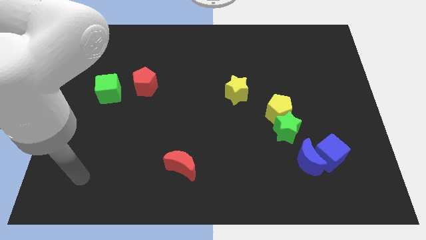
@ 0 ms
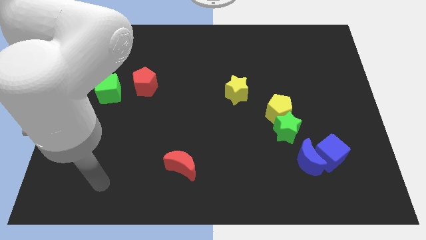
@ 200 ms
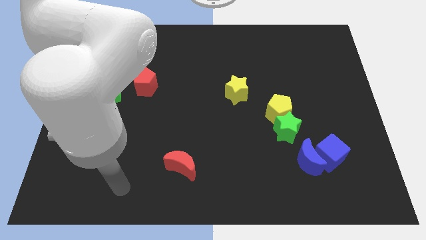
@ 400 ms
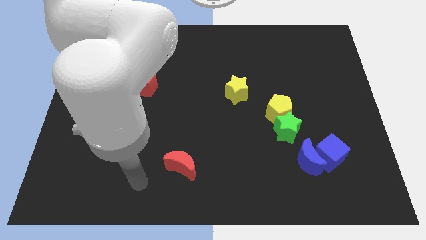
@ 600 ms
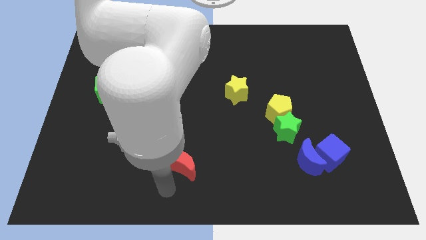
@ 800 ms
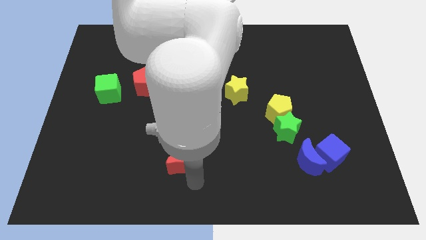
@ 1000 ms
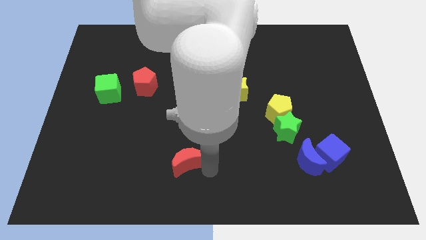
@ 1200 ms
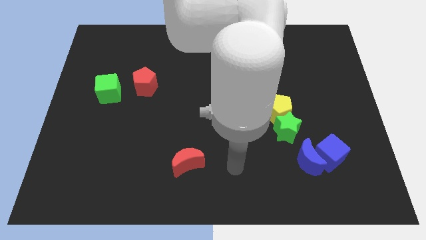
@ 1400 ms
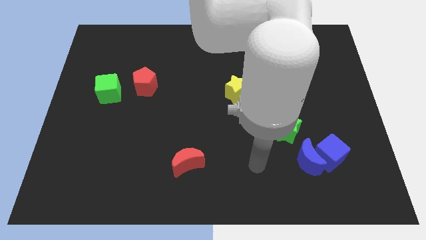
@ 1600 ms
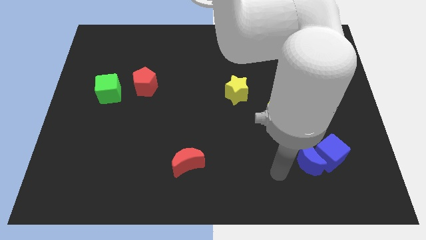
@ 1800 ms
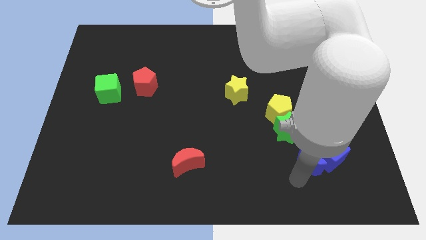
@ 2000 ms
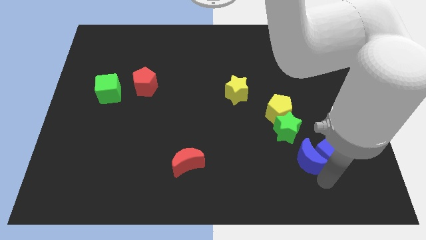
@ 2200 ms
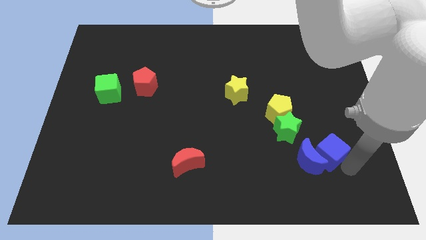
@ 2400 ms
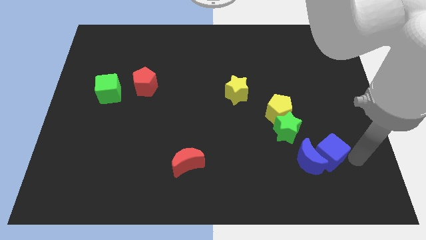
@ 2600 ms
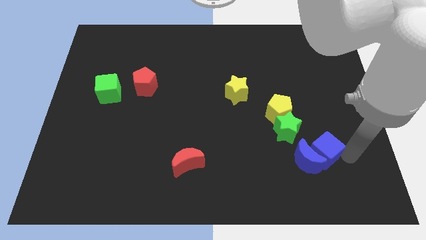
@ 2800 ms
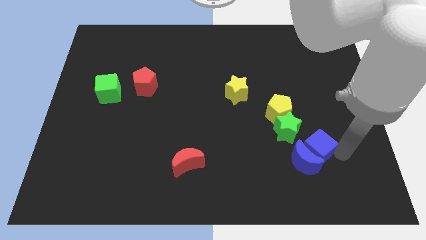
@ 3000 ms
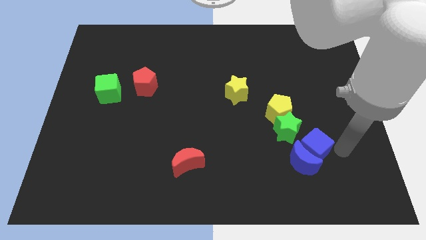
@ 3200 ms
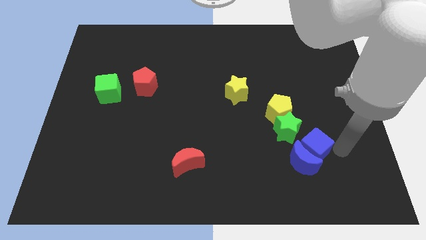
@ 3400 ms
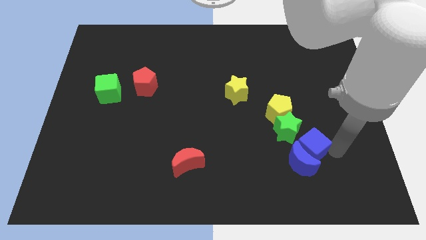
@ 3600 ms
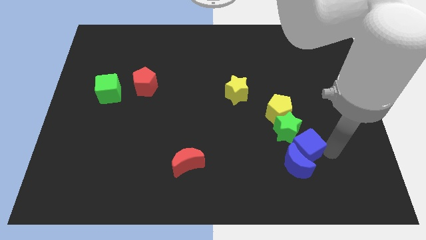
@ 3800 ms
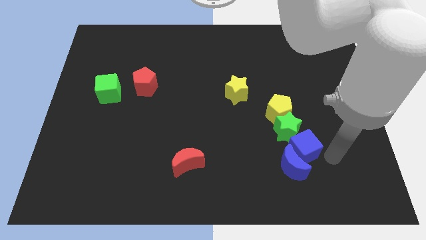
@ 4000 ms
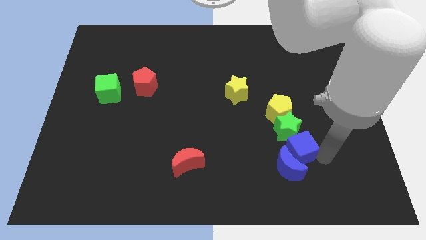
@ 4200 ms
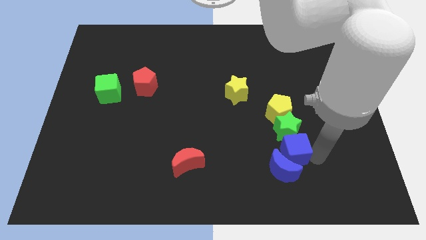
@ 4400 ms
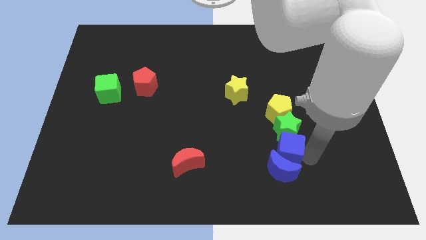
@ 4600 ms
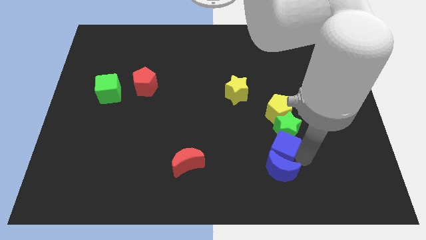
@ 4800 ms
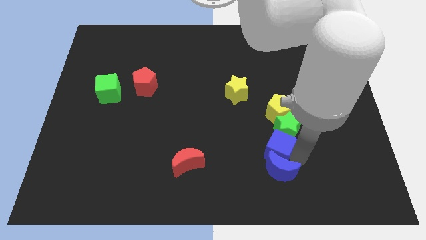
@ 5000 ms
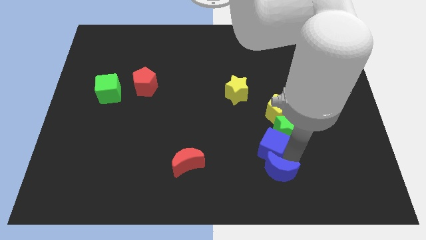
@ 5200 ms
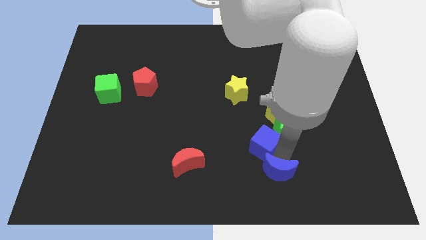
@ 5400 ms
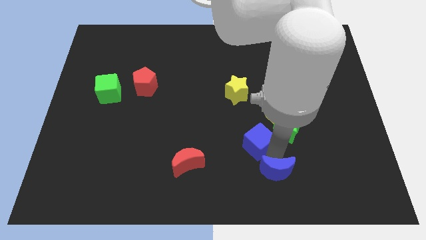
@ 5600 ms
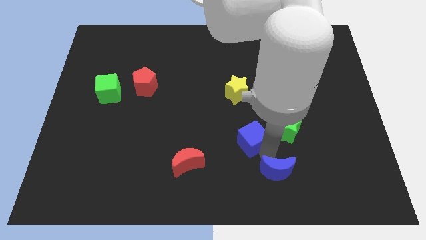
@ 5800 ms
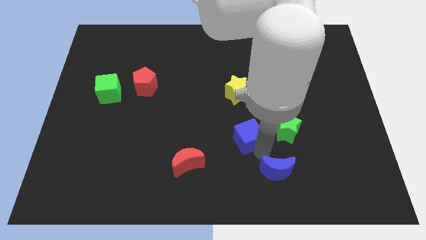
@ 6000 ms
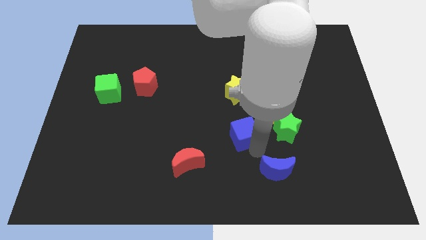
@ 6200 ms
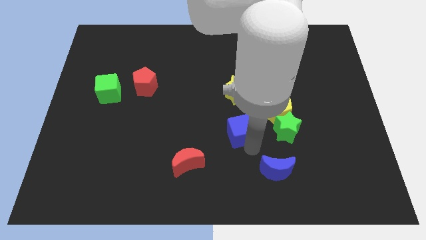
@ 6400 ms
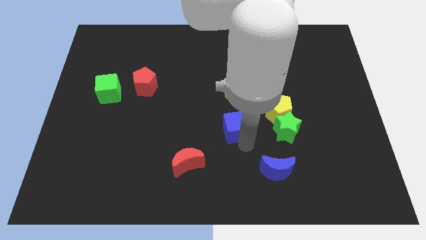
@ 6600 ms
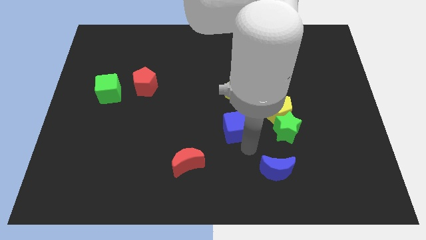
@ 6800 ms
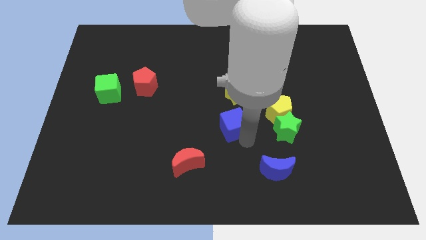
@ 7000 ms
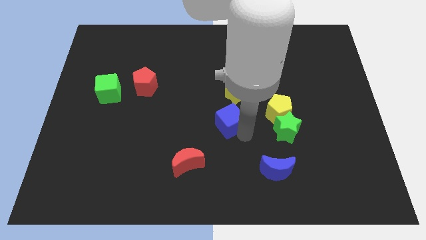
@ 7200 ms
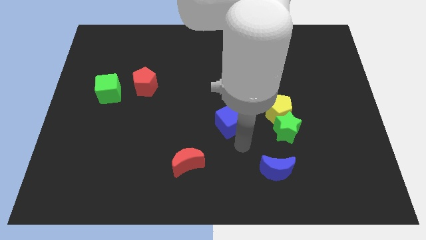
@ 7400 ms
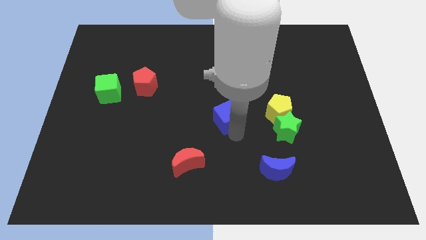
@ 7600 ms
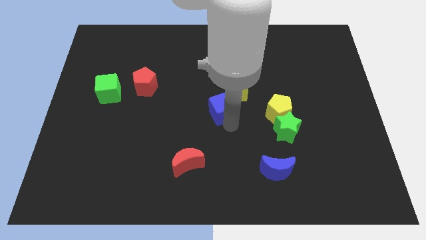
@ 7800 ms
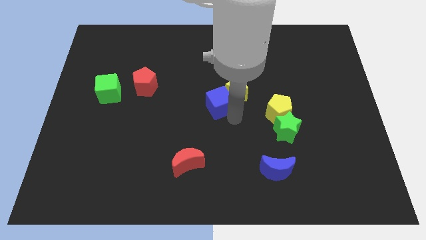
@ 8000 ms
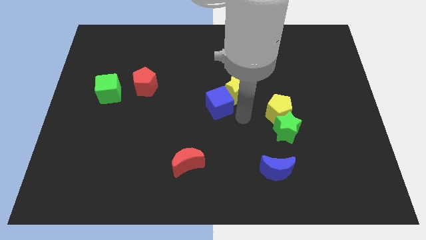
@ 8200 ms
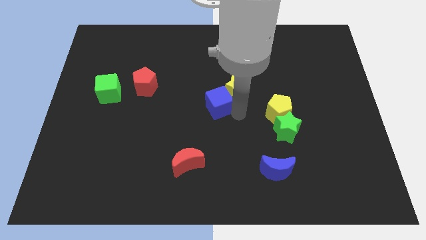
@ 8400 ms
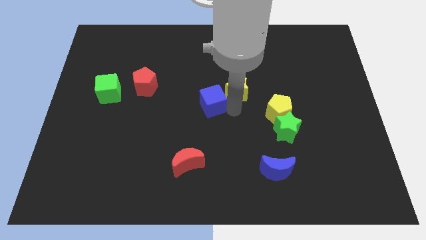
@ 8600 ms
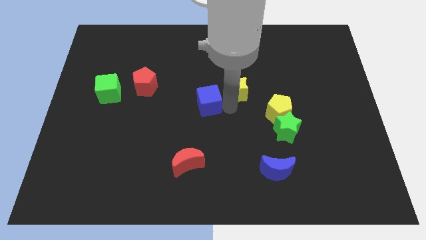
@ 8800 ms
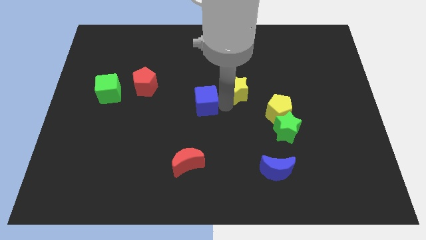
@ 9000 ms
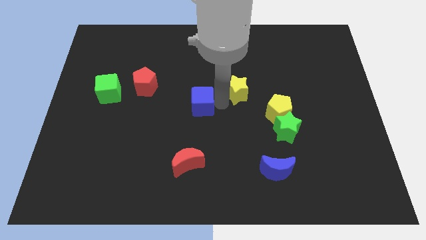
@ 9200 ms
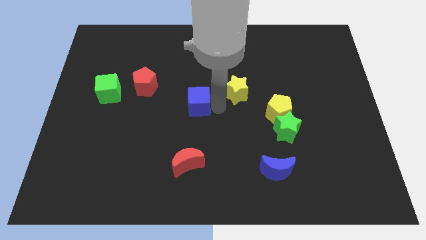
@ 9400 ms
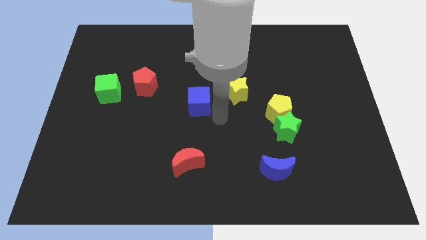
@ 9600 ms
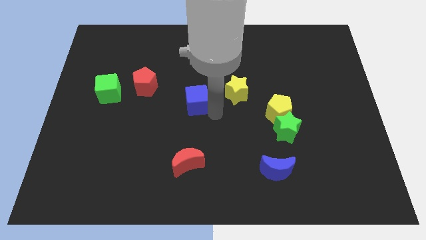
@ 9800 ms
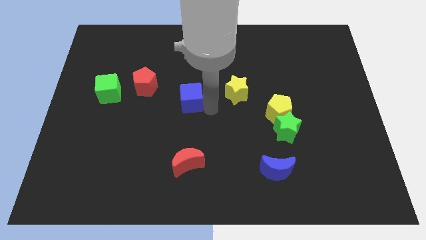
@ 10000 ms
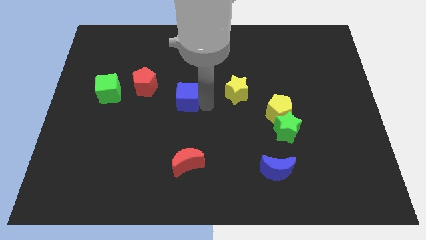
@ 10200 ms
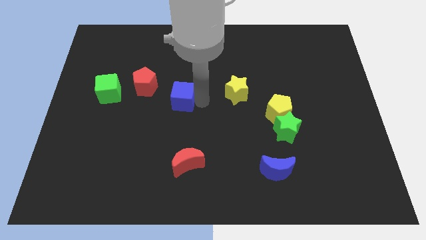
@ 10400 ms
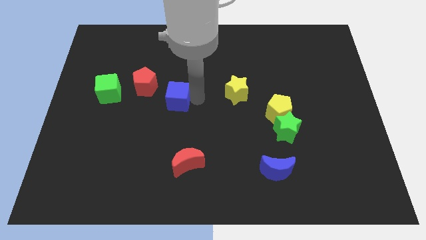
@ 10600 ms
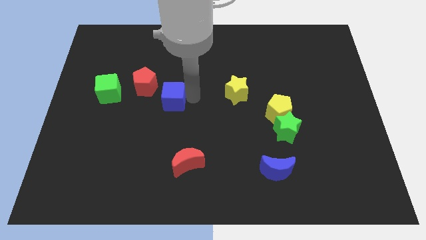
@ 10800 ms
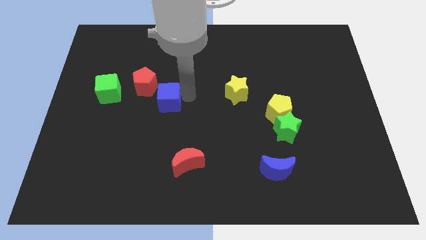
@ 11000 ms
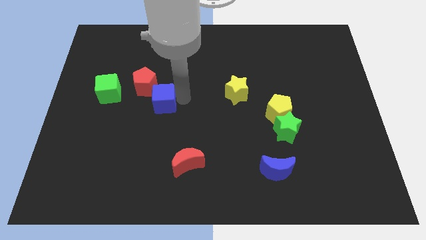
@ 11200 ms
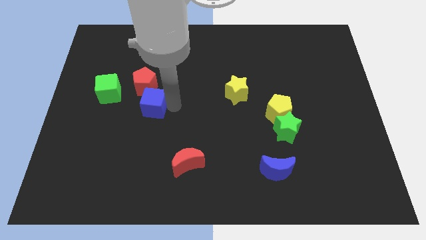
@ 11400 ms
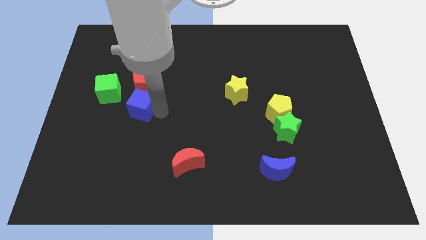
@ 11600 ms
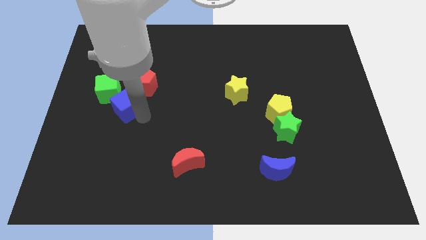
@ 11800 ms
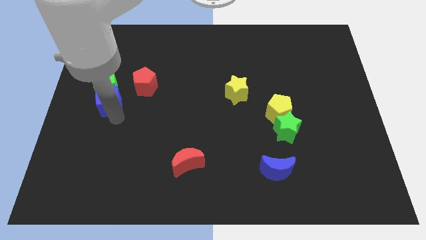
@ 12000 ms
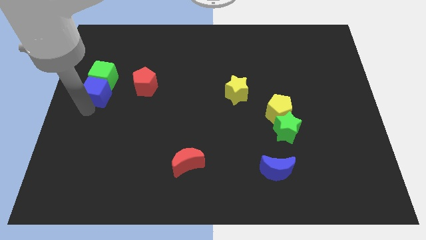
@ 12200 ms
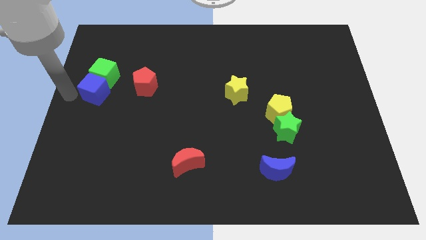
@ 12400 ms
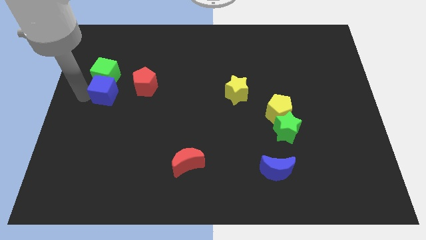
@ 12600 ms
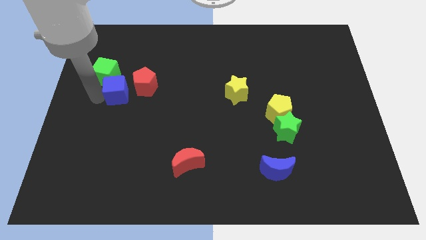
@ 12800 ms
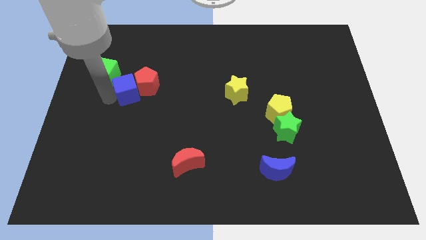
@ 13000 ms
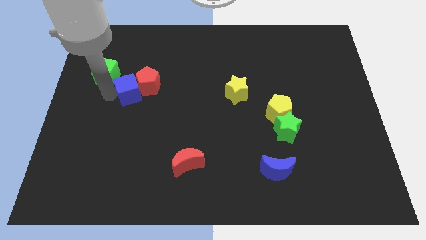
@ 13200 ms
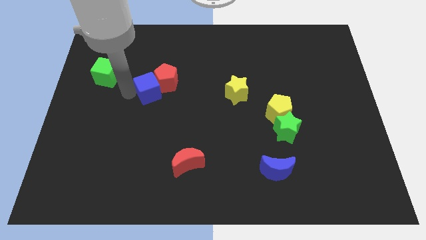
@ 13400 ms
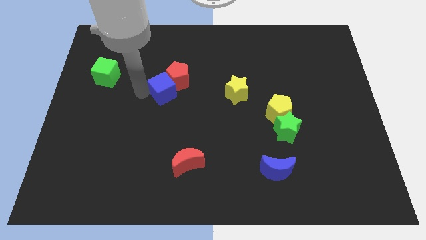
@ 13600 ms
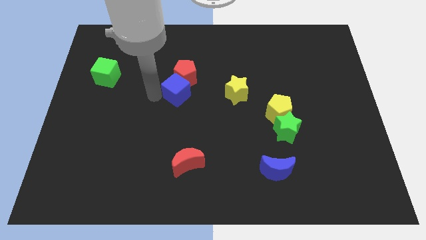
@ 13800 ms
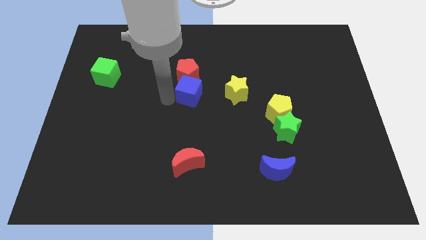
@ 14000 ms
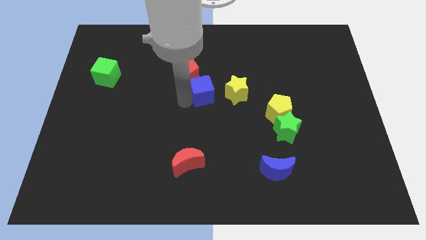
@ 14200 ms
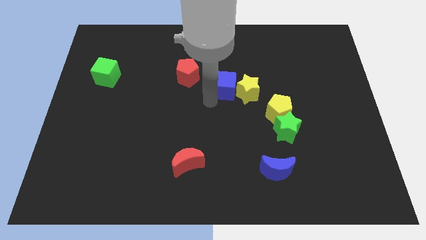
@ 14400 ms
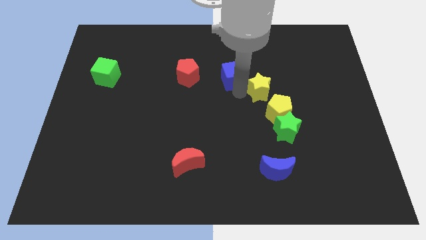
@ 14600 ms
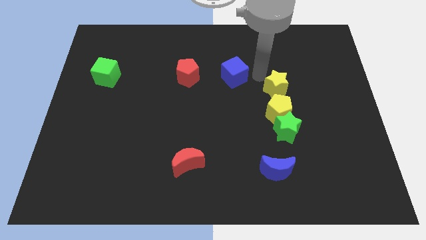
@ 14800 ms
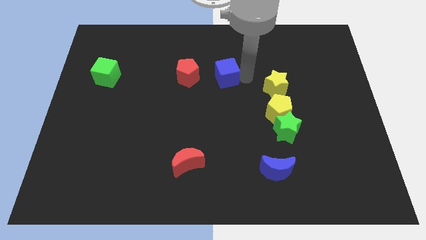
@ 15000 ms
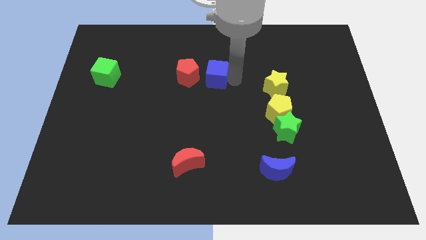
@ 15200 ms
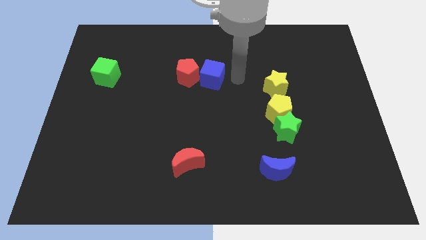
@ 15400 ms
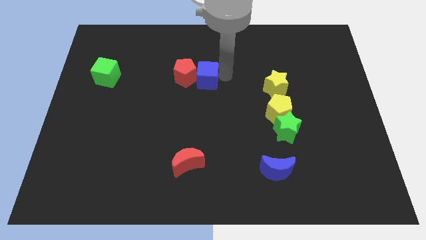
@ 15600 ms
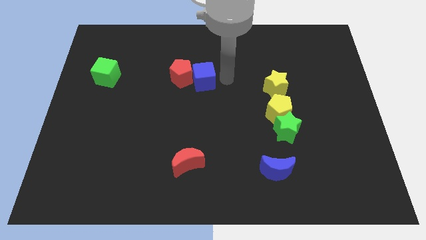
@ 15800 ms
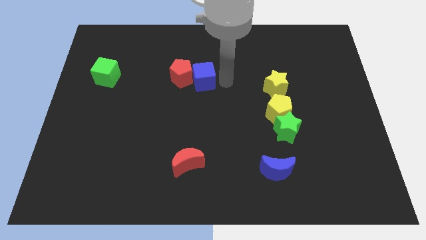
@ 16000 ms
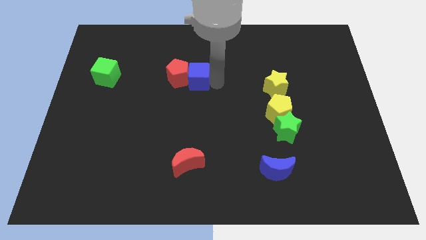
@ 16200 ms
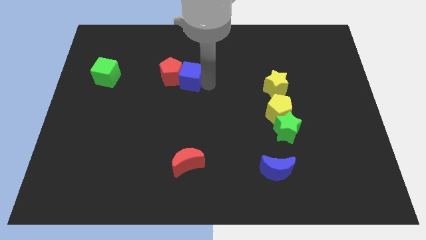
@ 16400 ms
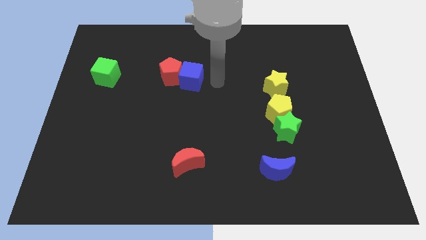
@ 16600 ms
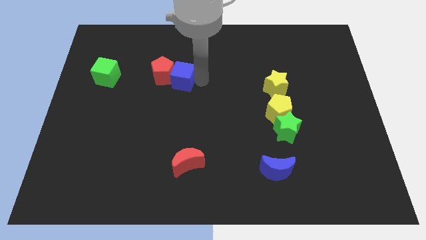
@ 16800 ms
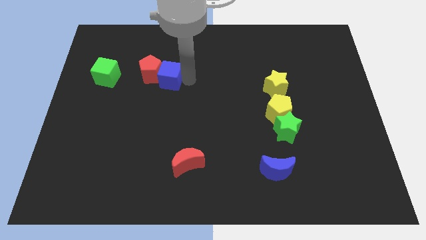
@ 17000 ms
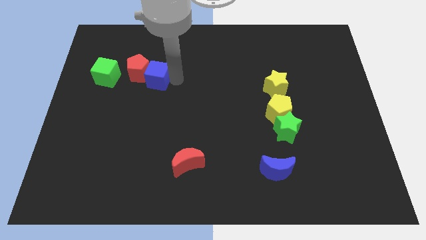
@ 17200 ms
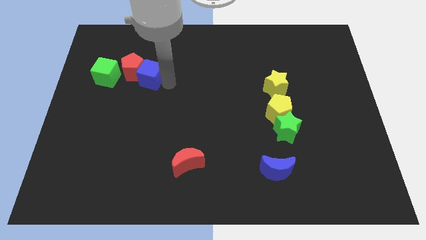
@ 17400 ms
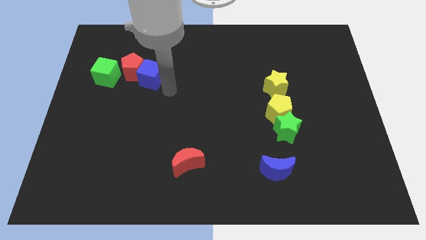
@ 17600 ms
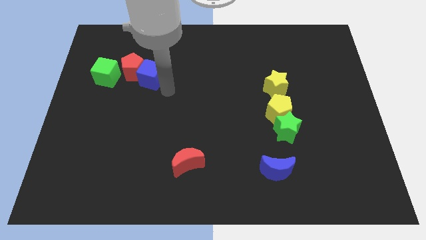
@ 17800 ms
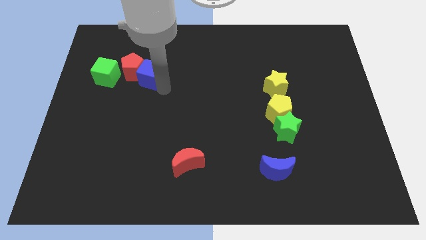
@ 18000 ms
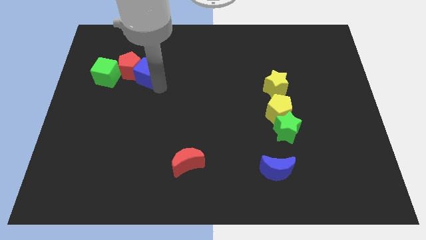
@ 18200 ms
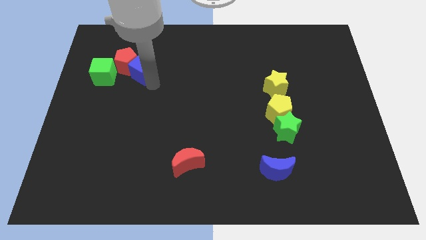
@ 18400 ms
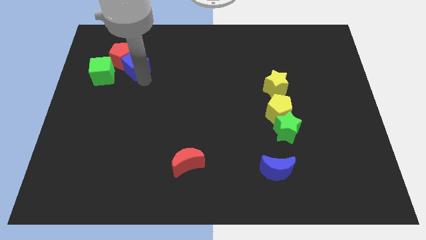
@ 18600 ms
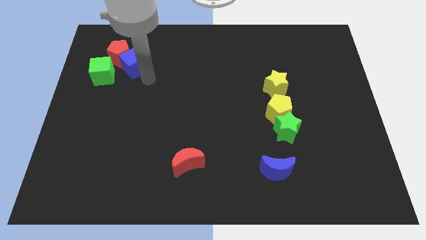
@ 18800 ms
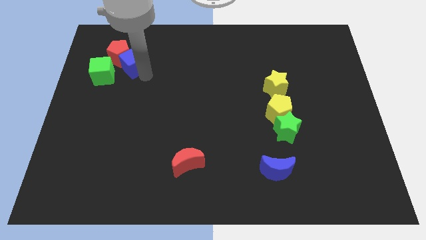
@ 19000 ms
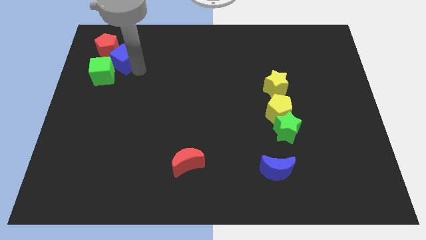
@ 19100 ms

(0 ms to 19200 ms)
slide the blue cube above the green cube
